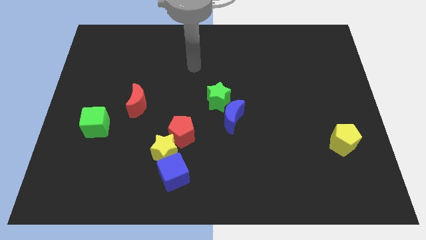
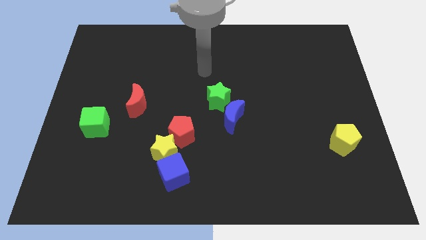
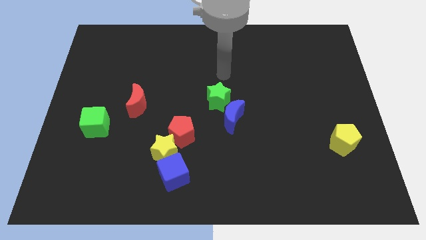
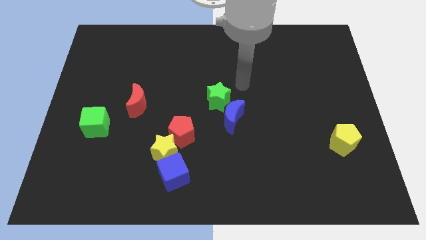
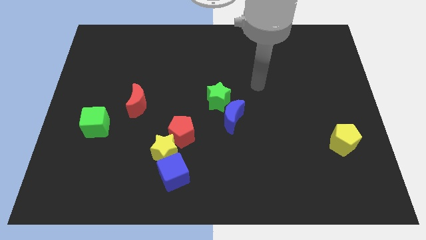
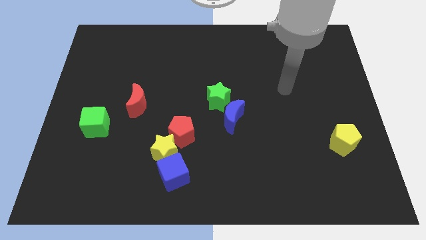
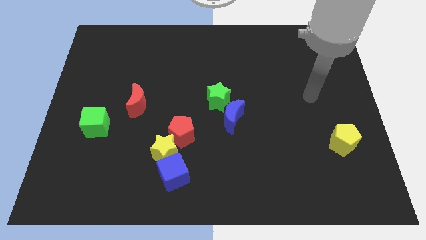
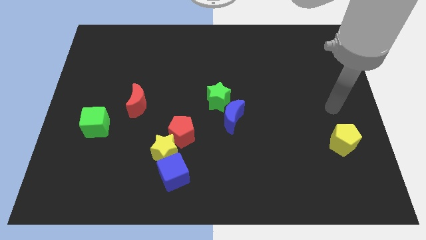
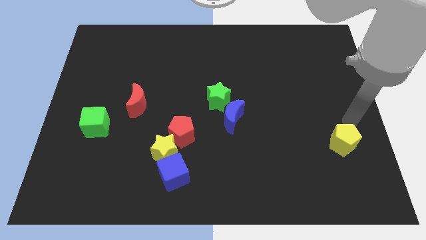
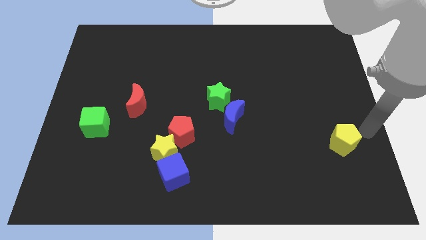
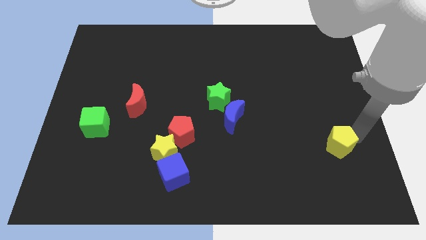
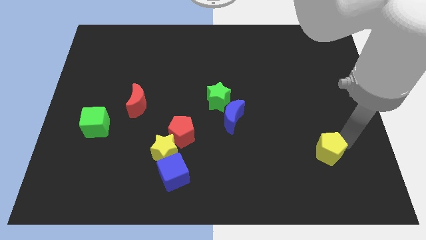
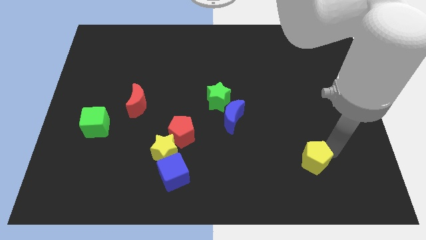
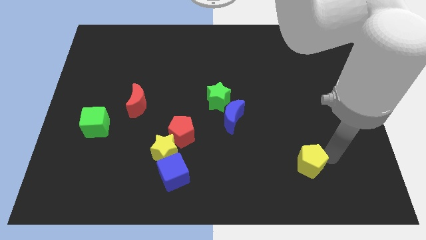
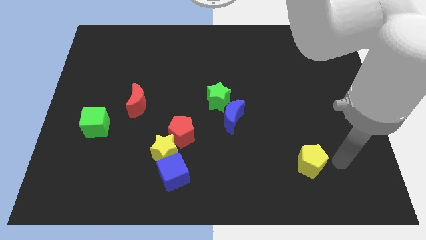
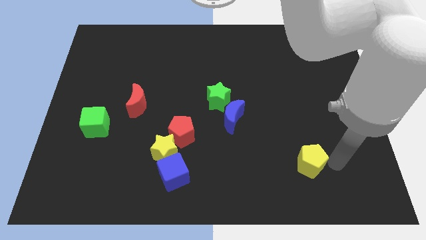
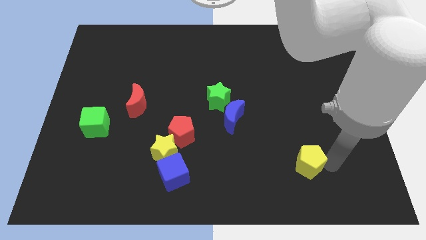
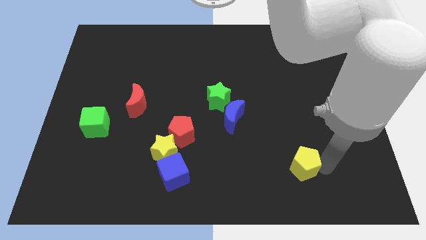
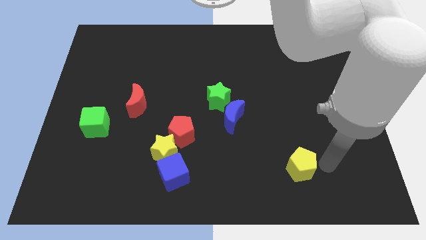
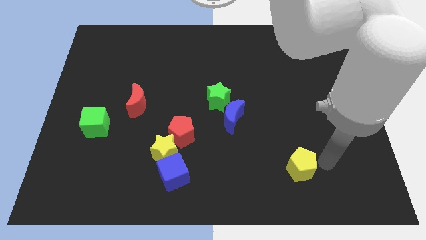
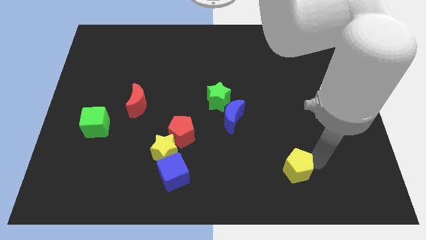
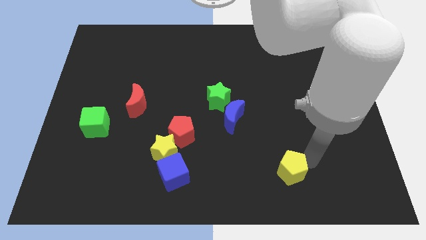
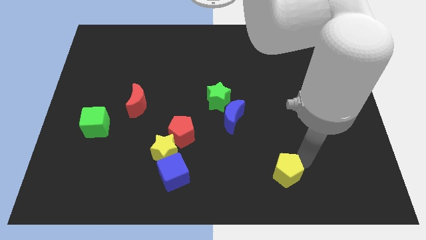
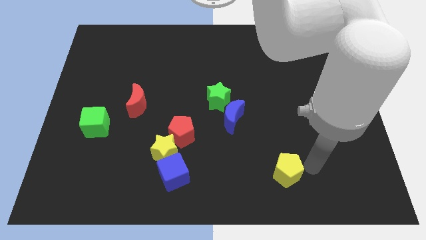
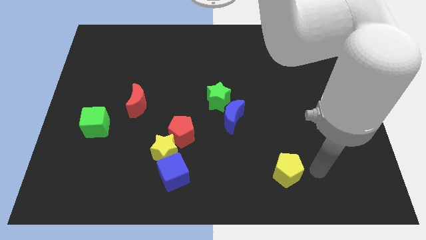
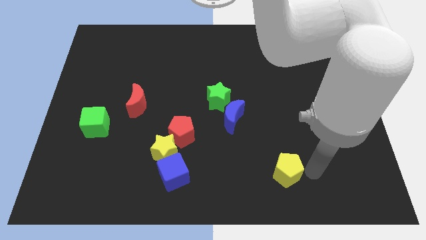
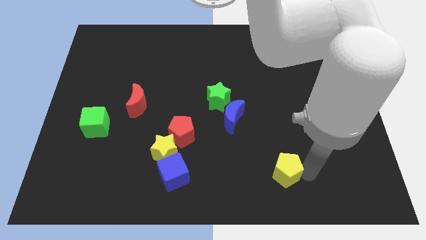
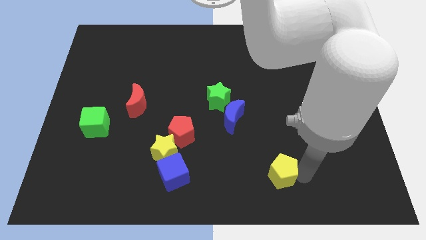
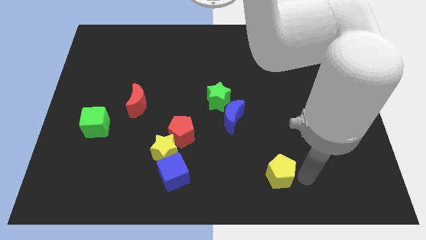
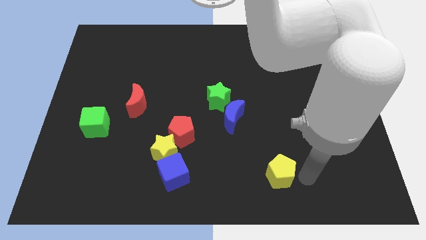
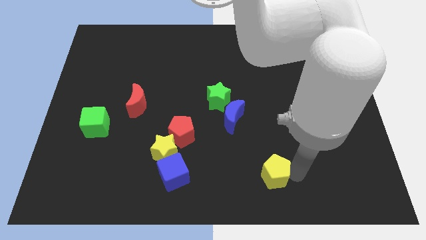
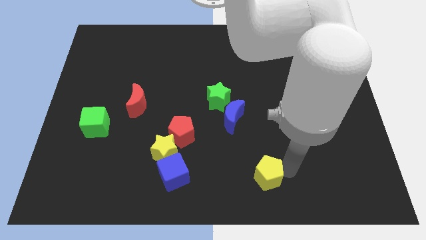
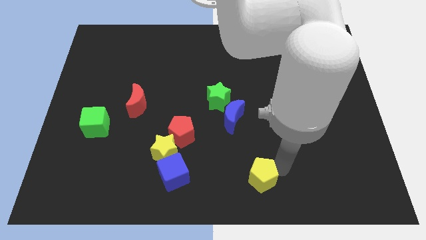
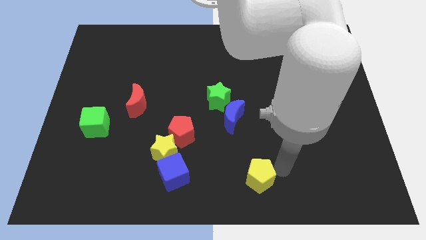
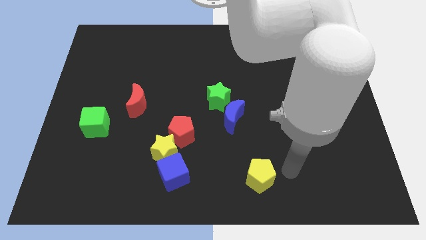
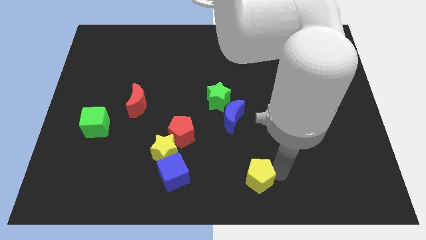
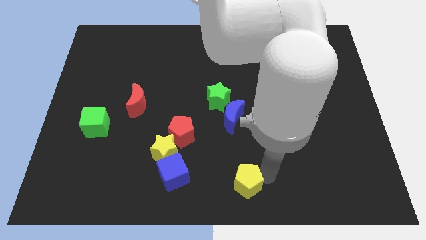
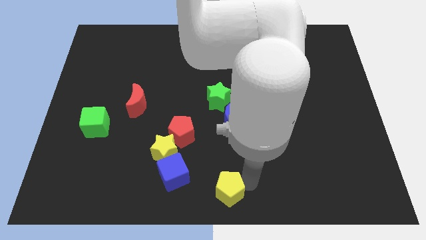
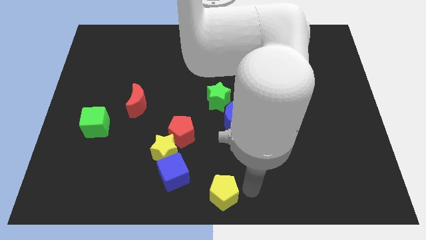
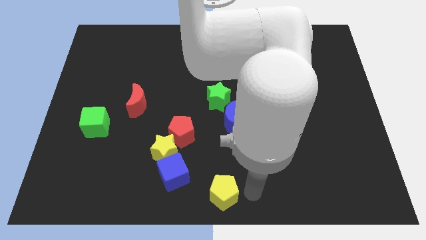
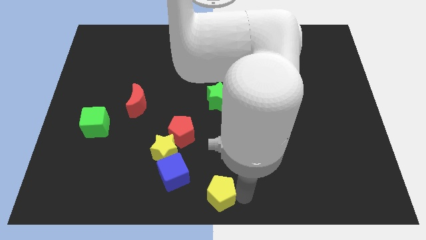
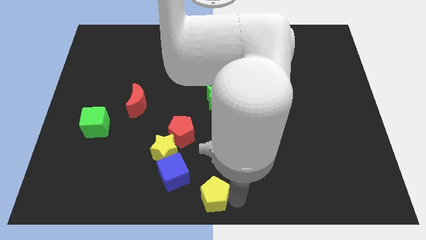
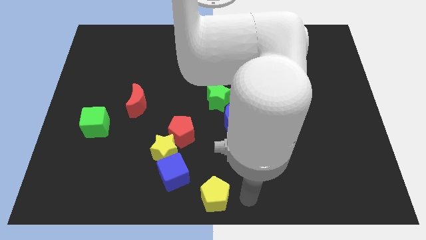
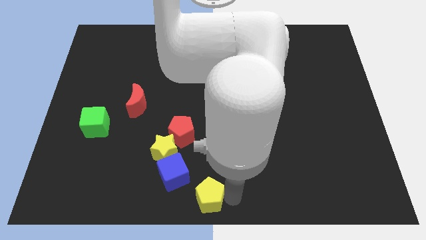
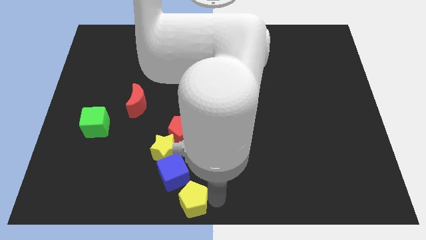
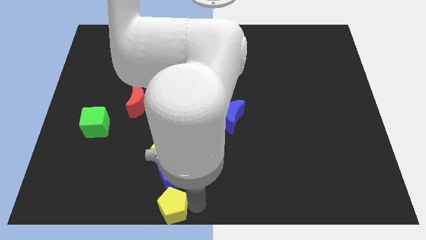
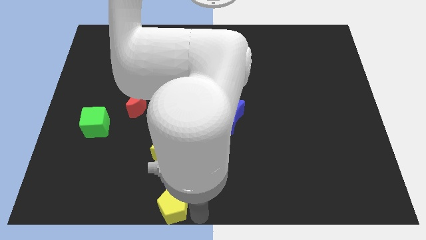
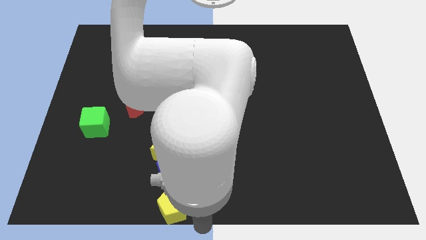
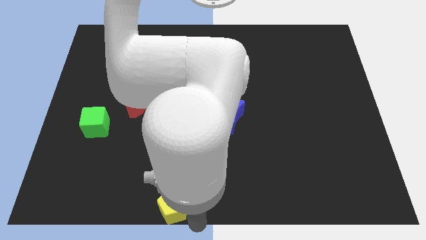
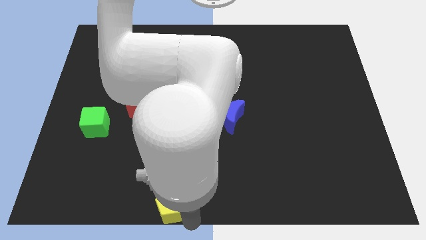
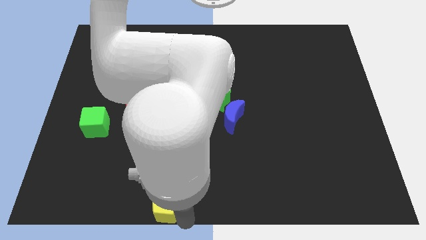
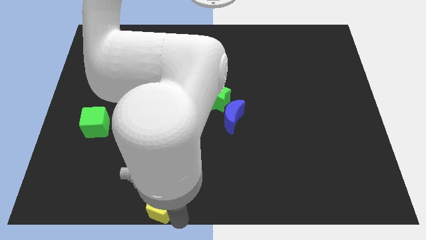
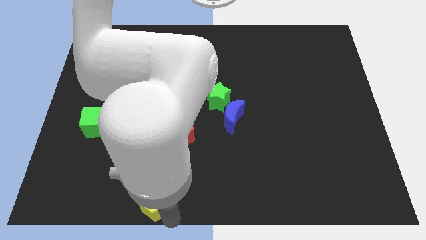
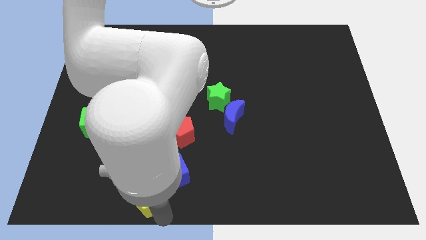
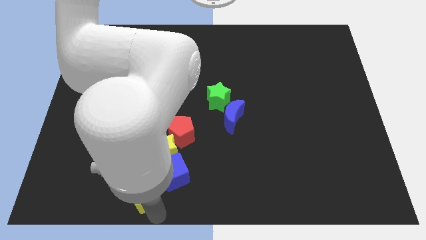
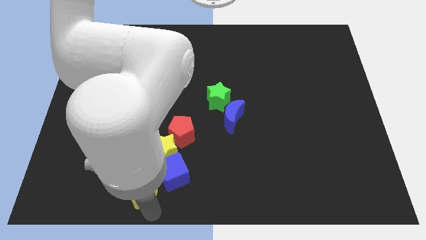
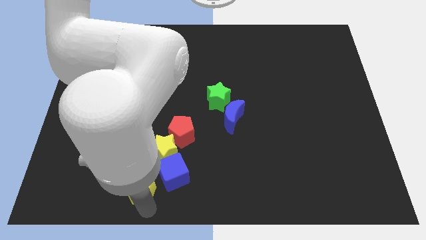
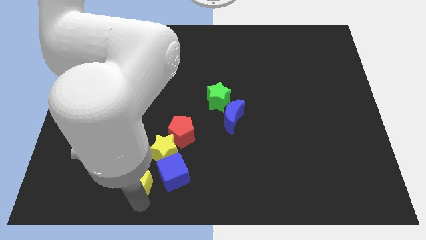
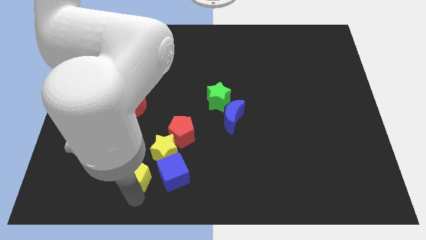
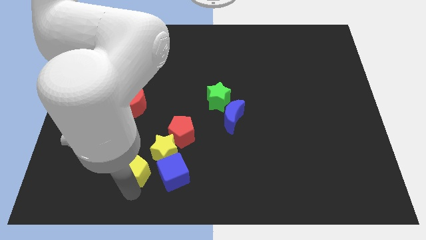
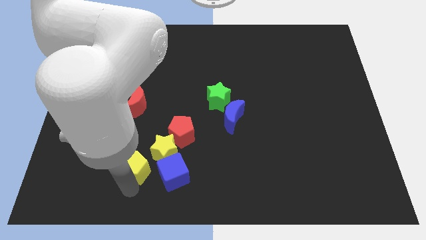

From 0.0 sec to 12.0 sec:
slide the yellow pentagon to the top left of the blue cube

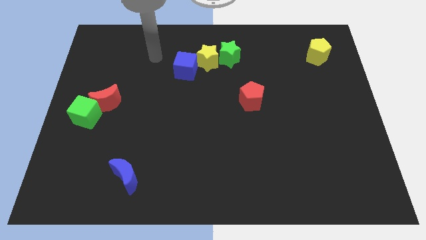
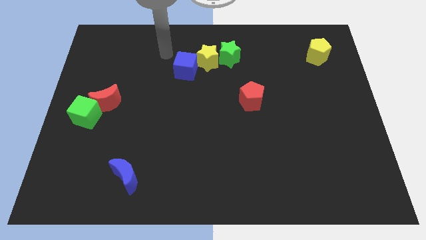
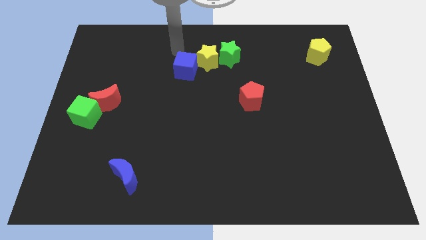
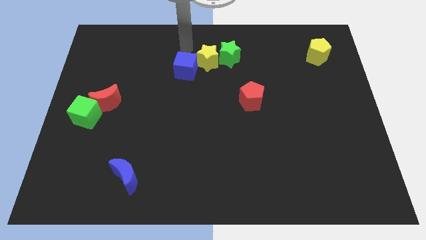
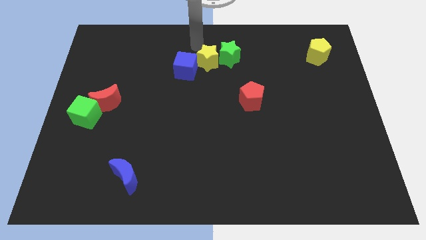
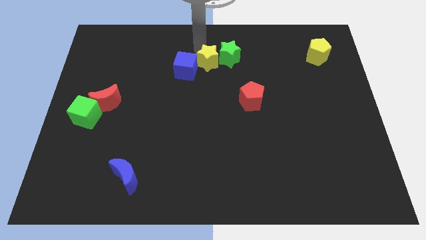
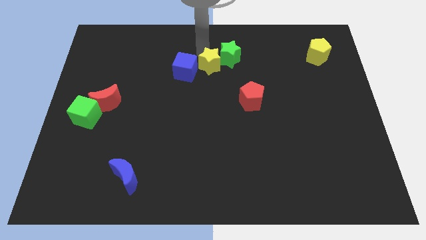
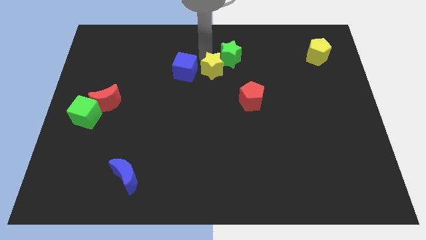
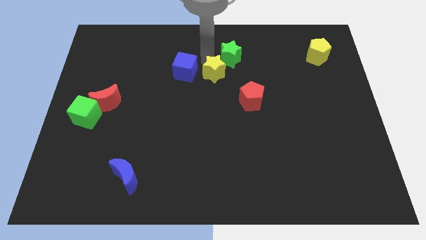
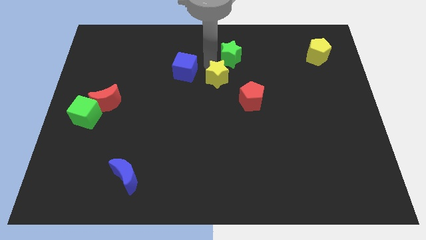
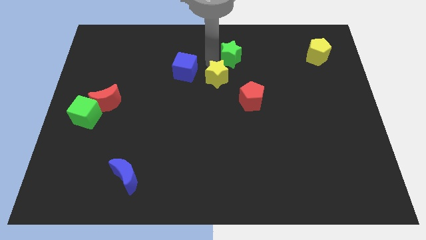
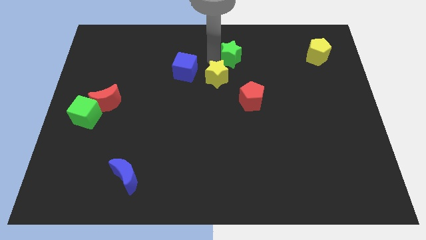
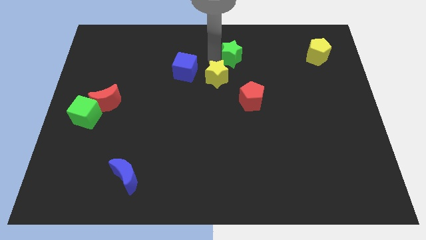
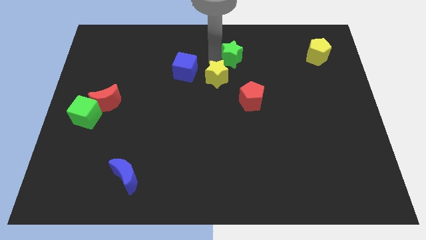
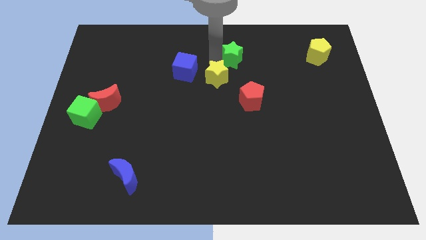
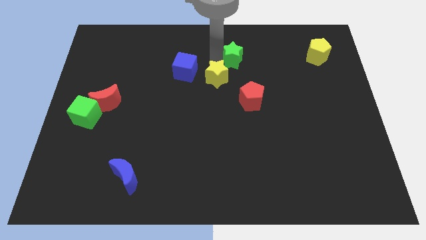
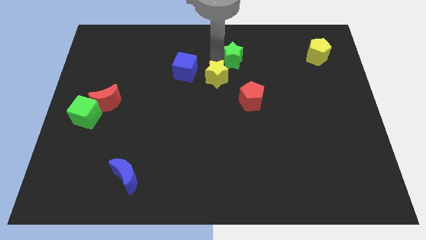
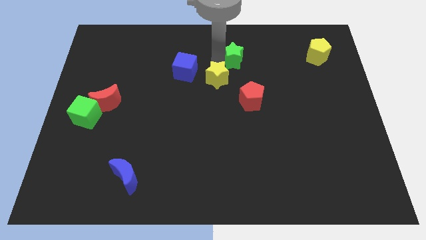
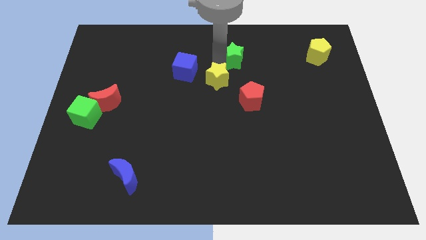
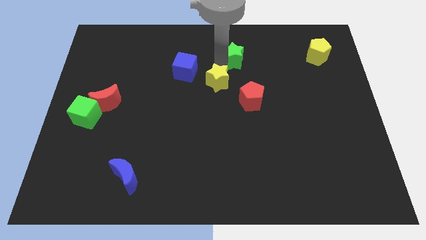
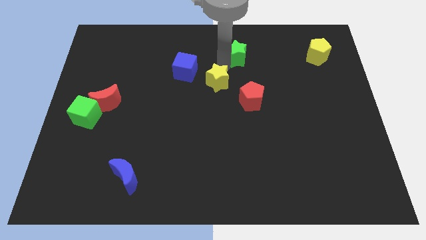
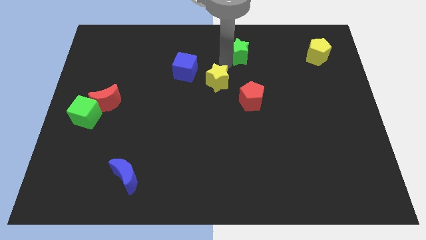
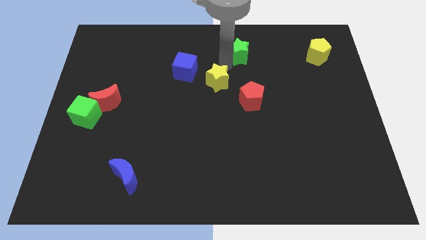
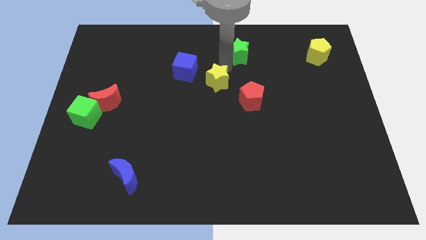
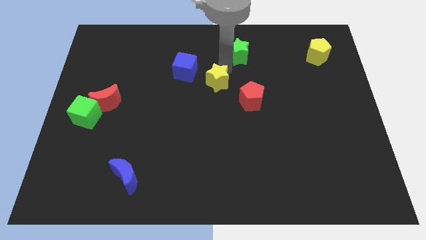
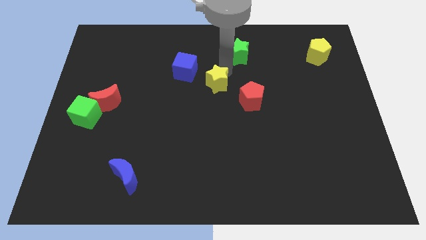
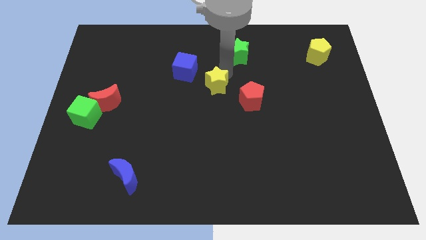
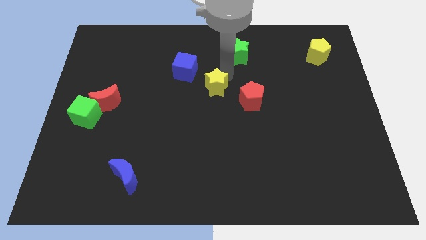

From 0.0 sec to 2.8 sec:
put the yellow star left of the red pentagon
